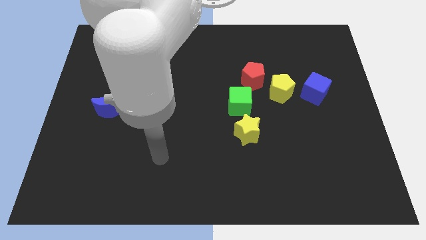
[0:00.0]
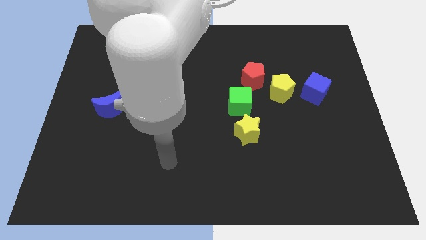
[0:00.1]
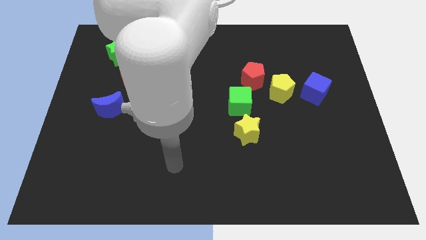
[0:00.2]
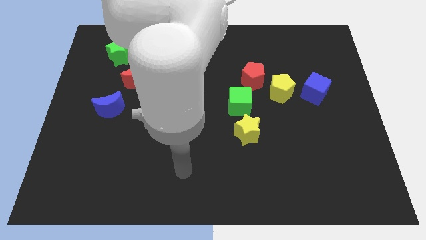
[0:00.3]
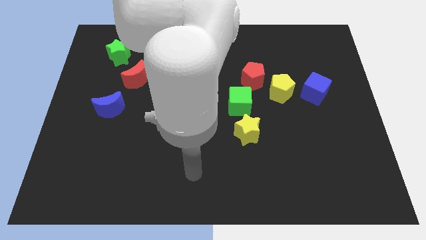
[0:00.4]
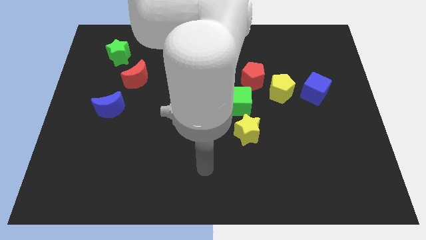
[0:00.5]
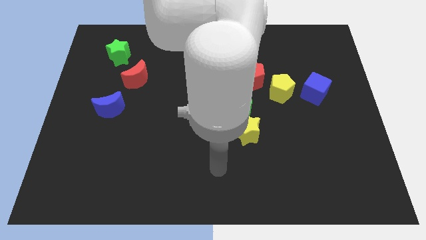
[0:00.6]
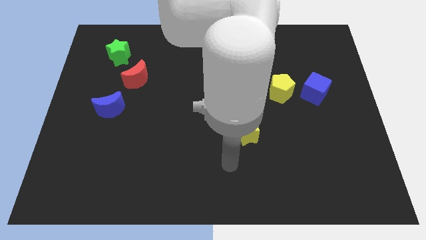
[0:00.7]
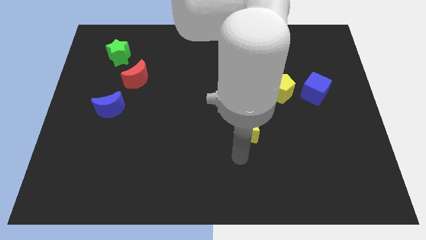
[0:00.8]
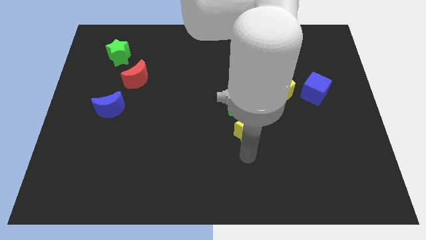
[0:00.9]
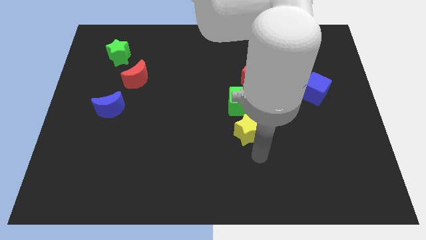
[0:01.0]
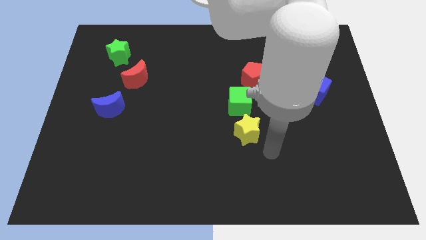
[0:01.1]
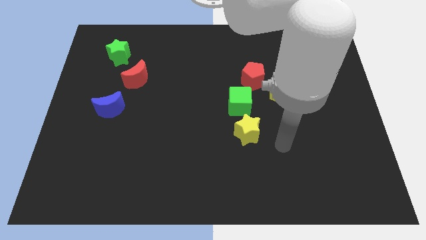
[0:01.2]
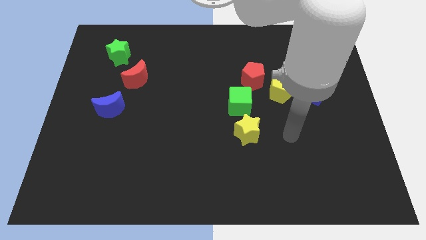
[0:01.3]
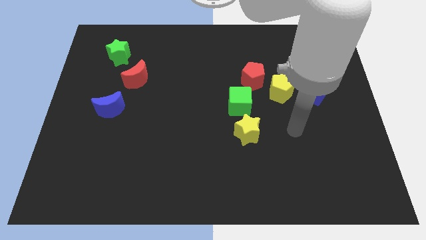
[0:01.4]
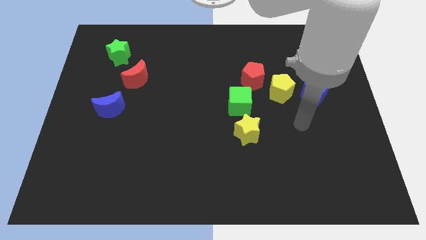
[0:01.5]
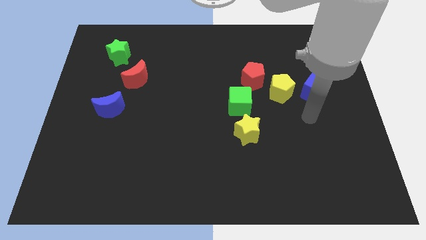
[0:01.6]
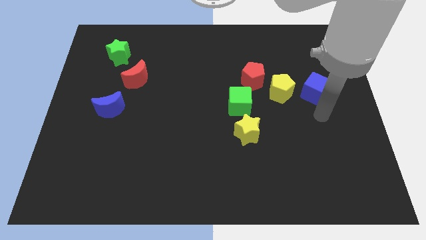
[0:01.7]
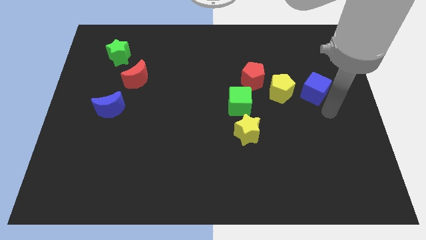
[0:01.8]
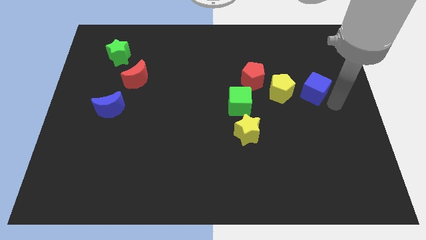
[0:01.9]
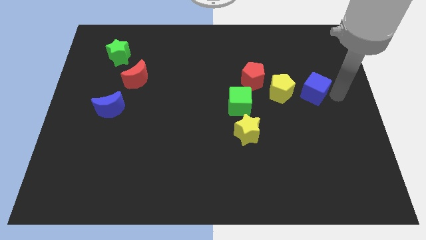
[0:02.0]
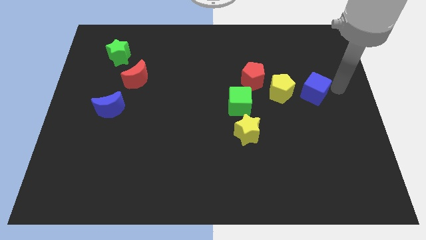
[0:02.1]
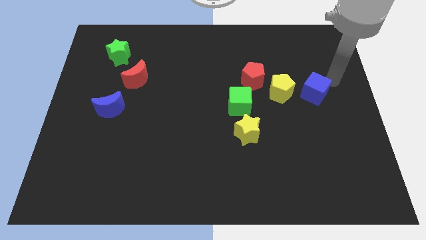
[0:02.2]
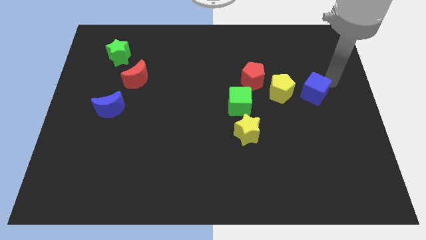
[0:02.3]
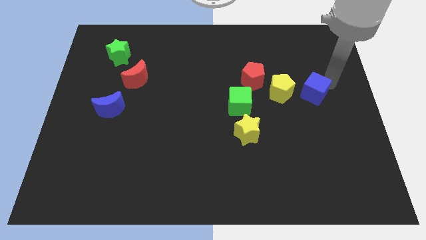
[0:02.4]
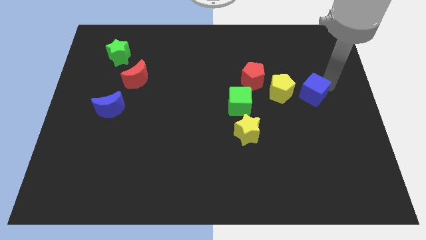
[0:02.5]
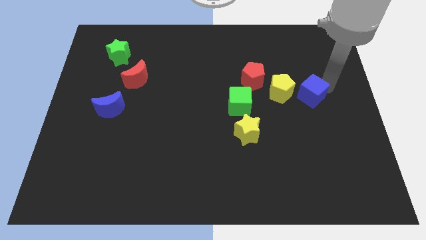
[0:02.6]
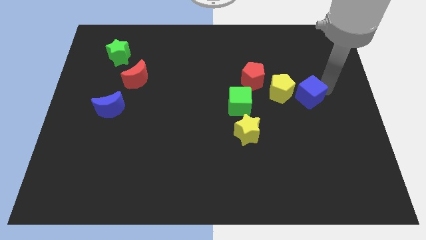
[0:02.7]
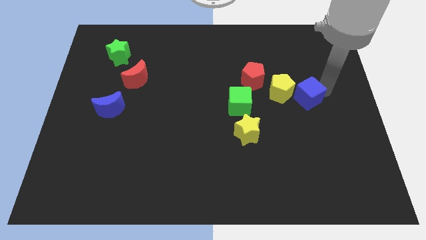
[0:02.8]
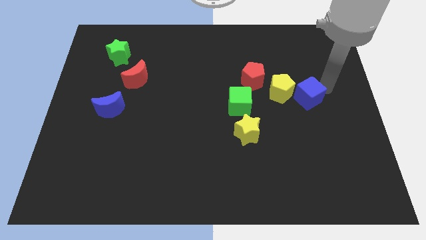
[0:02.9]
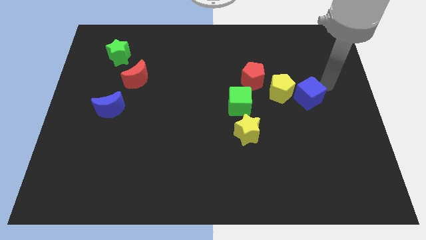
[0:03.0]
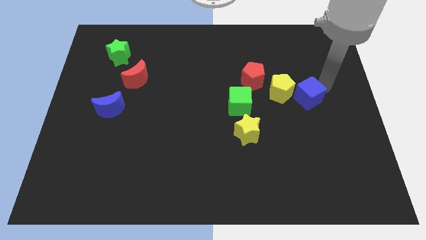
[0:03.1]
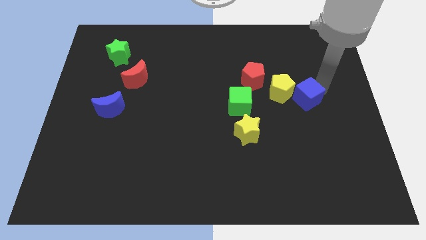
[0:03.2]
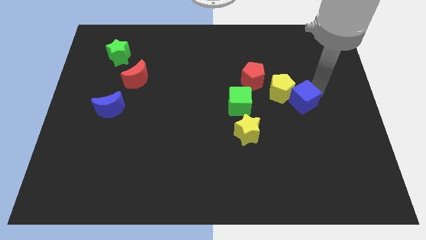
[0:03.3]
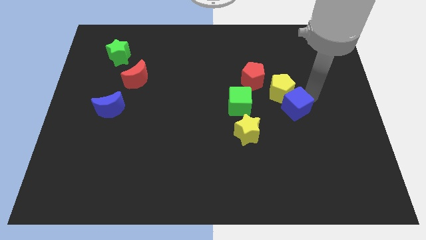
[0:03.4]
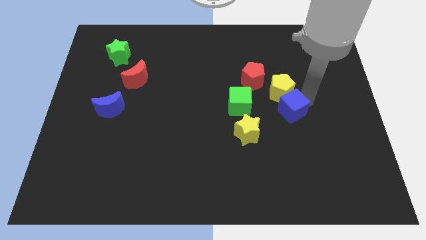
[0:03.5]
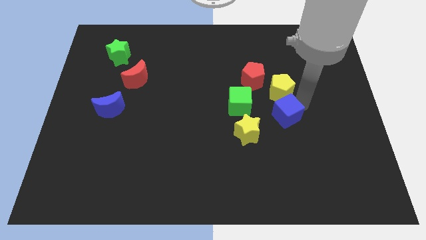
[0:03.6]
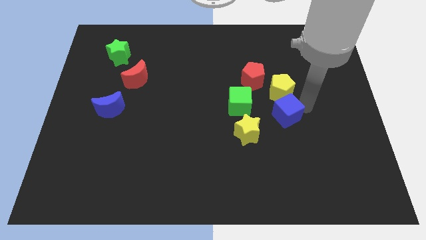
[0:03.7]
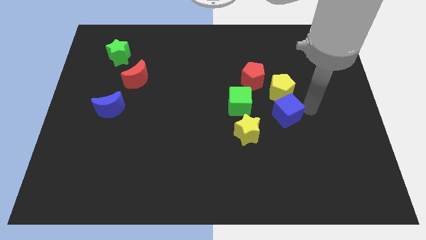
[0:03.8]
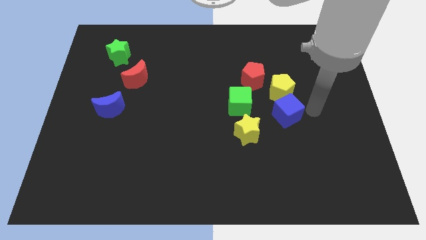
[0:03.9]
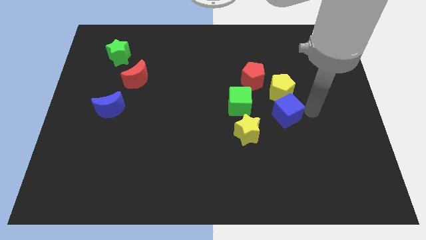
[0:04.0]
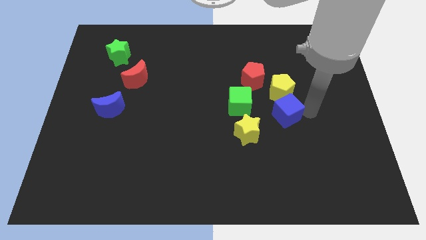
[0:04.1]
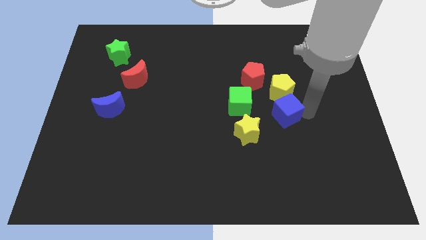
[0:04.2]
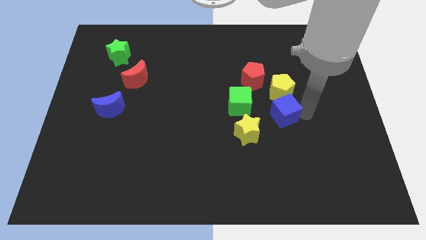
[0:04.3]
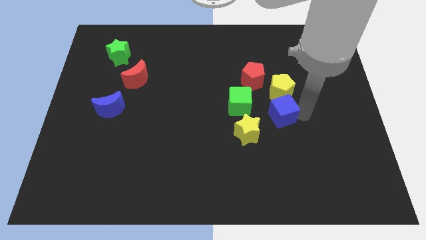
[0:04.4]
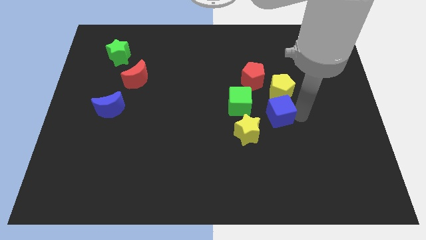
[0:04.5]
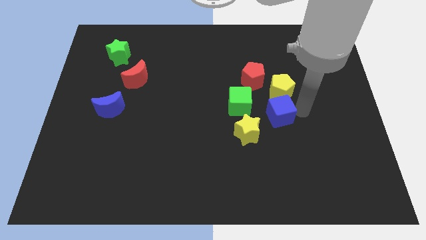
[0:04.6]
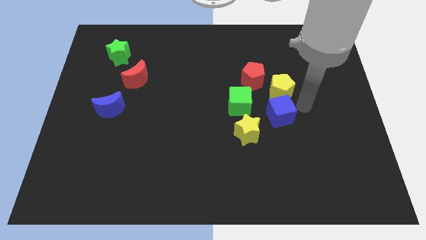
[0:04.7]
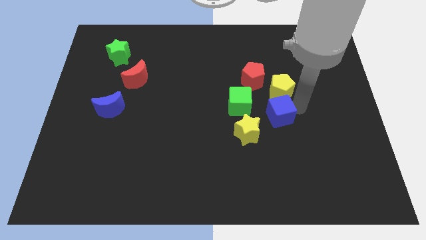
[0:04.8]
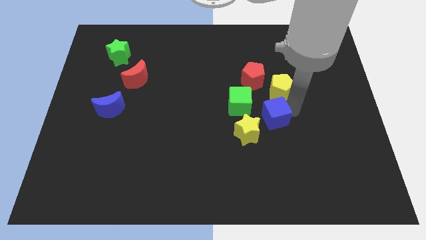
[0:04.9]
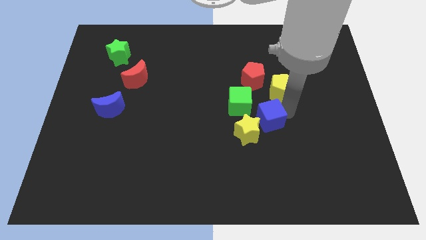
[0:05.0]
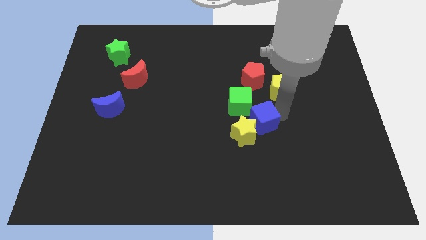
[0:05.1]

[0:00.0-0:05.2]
push the blue cube close to the yellow star

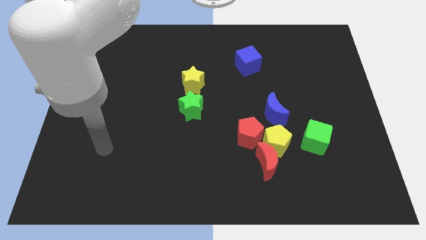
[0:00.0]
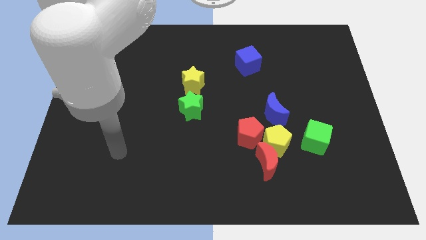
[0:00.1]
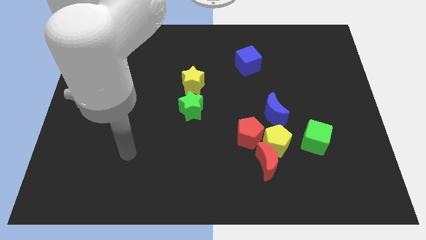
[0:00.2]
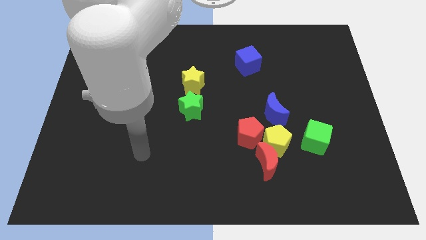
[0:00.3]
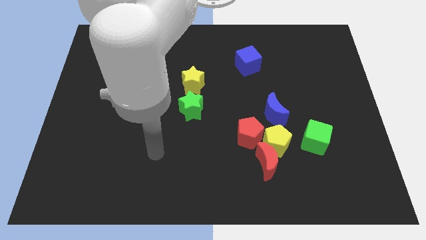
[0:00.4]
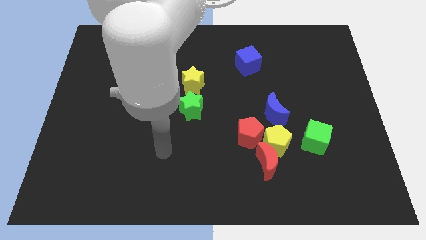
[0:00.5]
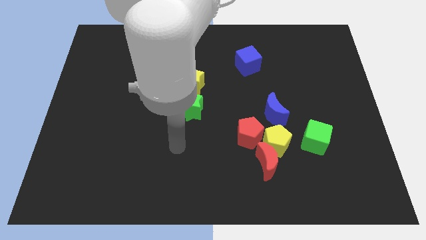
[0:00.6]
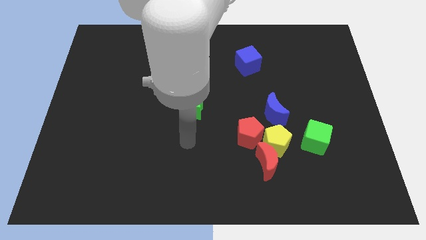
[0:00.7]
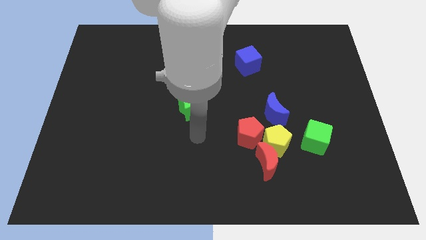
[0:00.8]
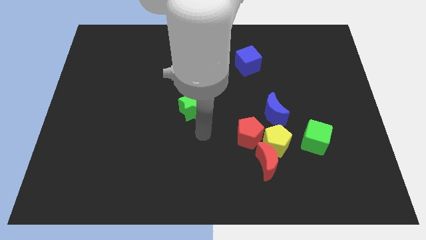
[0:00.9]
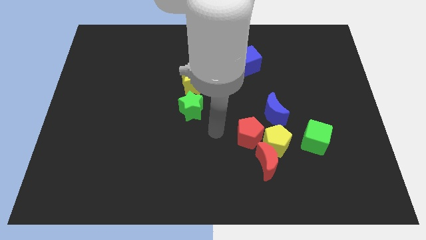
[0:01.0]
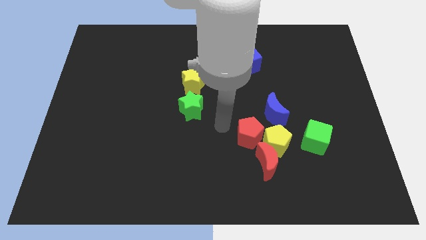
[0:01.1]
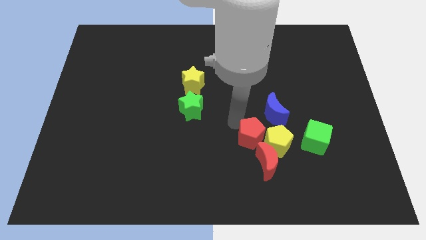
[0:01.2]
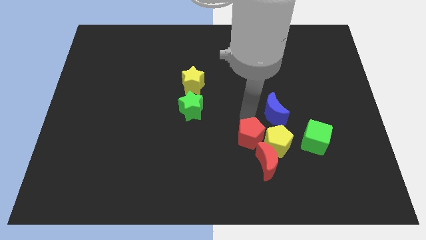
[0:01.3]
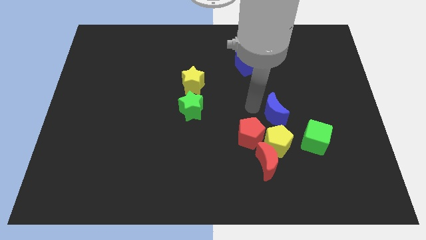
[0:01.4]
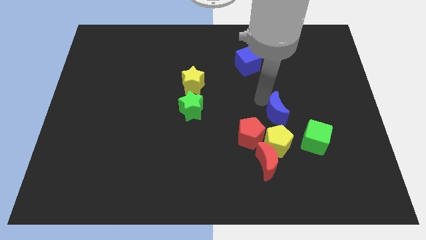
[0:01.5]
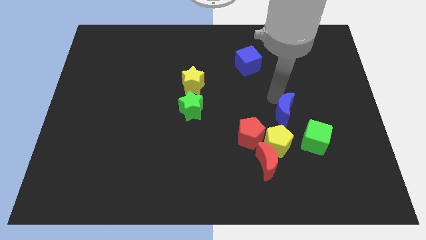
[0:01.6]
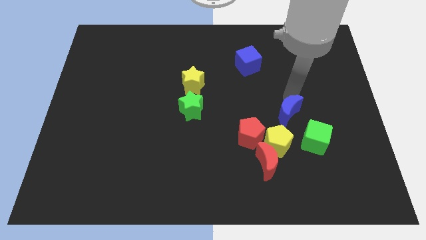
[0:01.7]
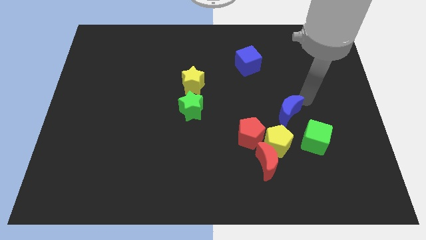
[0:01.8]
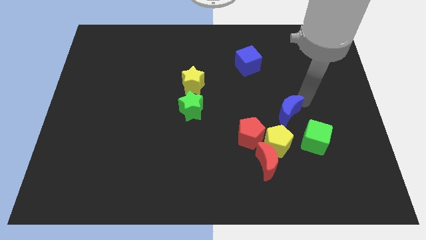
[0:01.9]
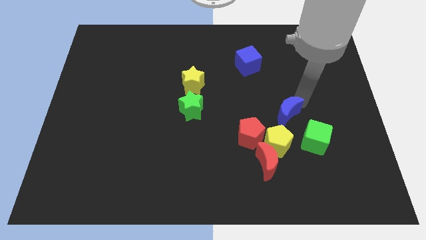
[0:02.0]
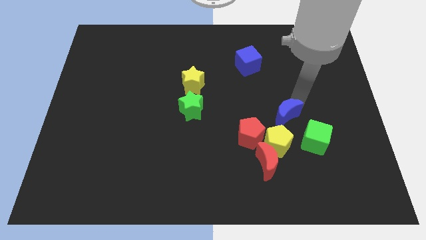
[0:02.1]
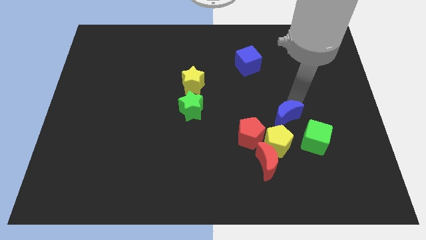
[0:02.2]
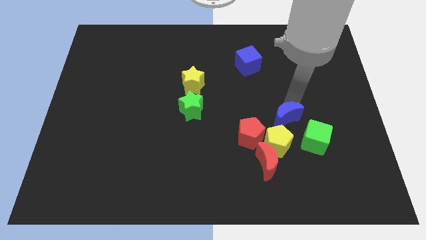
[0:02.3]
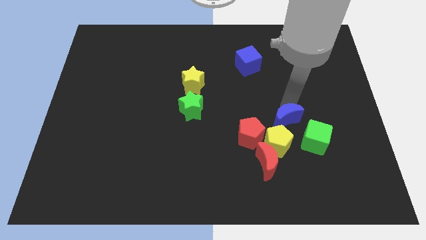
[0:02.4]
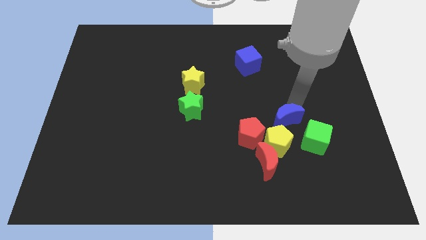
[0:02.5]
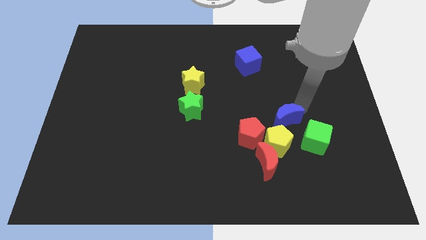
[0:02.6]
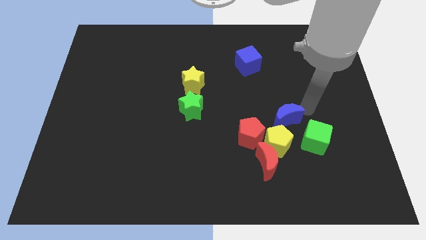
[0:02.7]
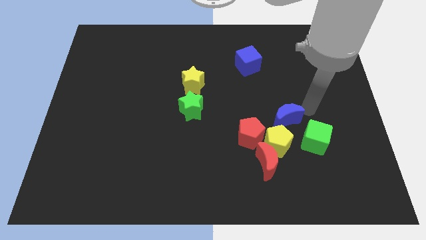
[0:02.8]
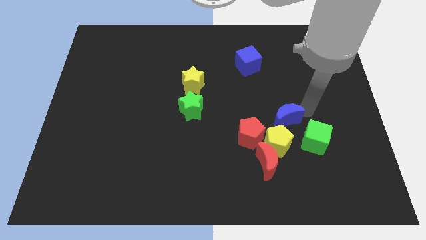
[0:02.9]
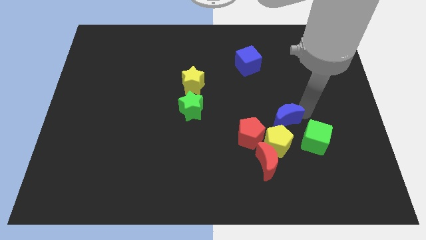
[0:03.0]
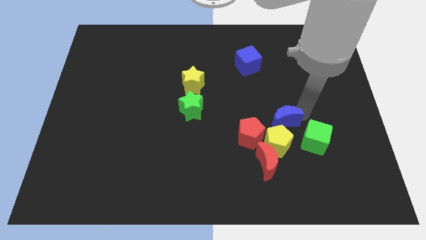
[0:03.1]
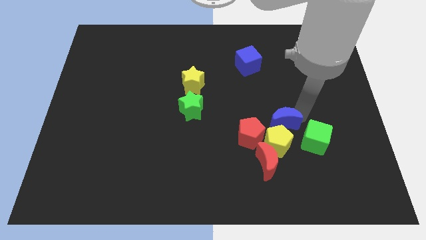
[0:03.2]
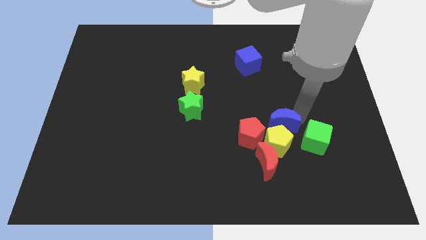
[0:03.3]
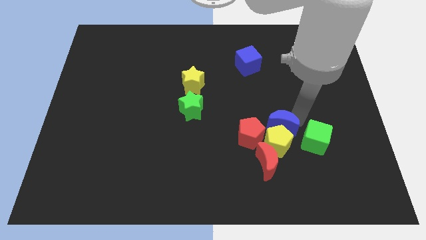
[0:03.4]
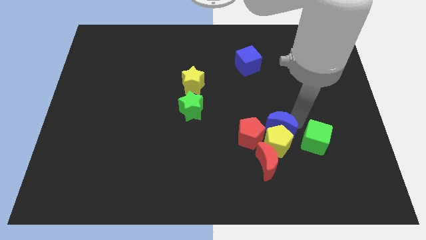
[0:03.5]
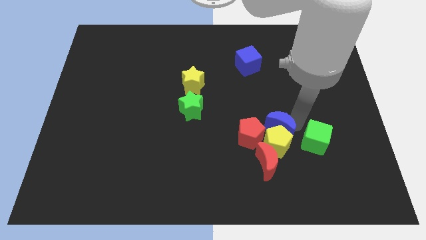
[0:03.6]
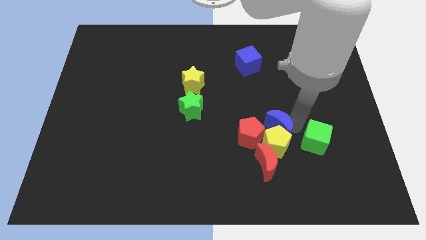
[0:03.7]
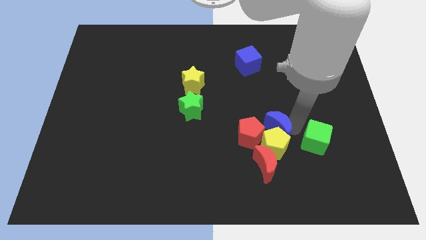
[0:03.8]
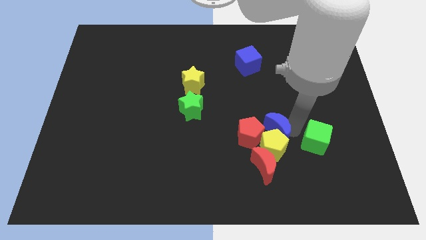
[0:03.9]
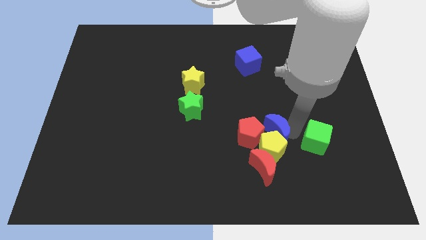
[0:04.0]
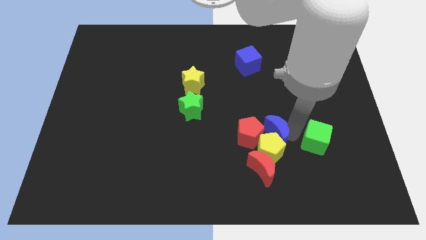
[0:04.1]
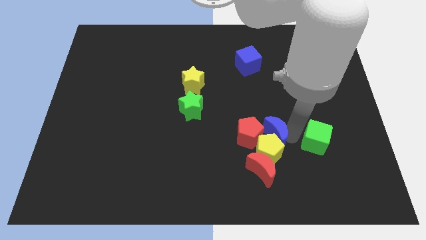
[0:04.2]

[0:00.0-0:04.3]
slide the blue moon next to the red pentagon
